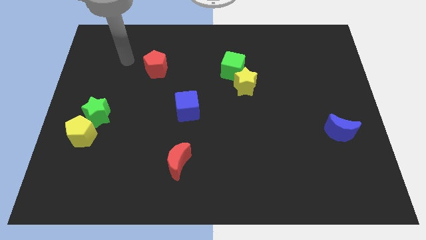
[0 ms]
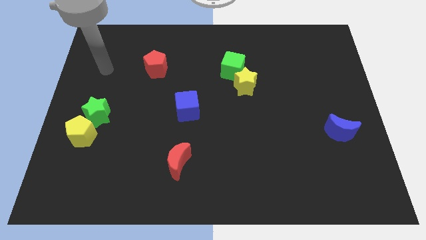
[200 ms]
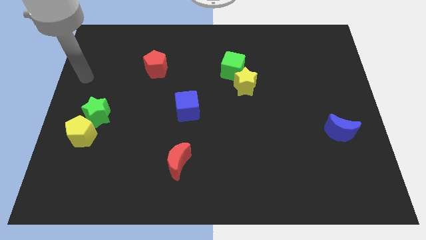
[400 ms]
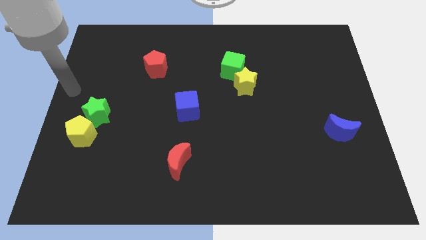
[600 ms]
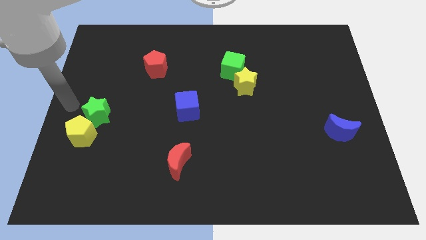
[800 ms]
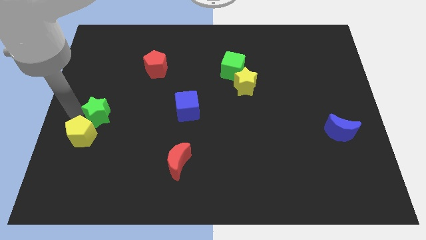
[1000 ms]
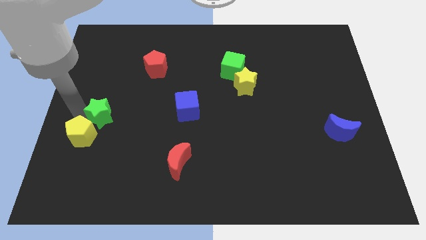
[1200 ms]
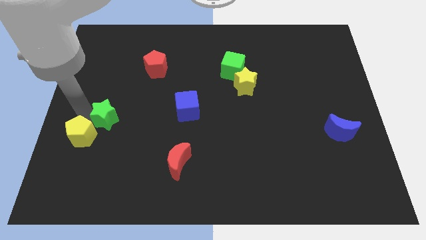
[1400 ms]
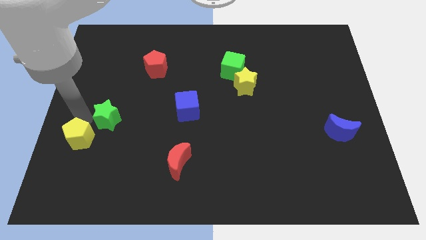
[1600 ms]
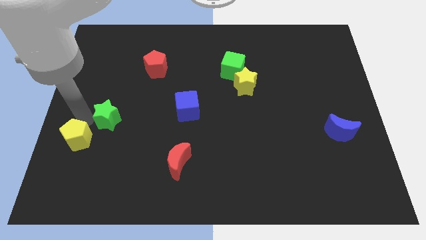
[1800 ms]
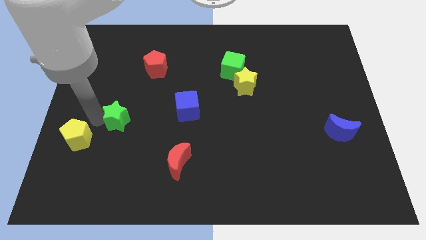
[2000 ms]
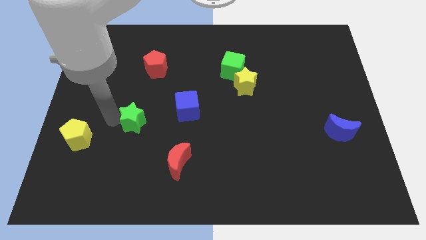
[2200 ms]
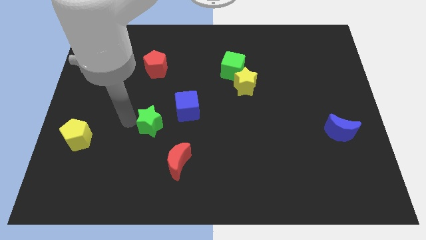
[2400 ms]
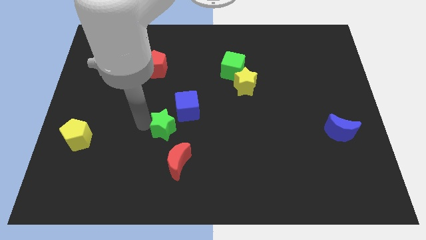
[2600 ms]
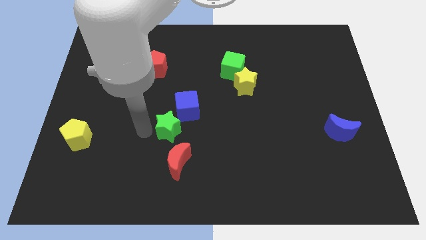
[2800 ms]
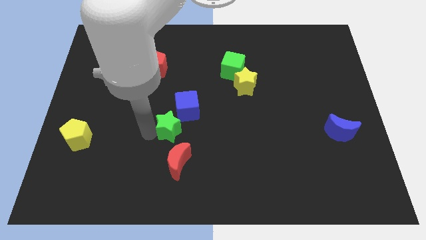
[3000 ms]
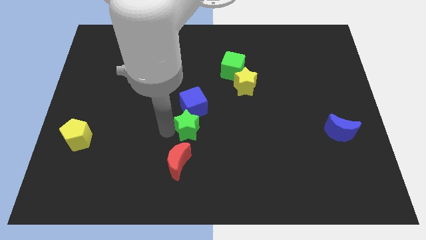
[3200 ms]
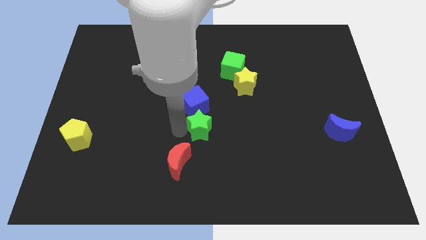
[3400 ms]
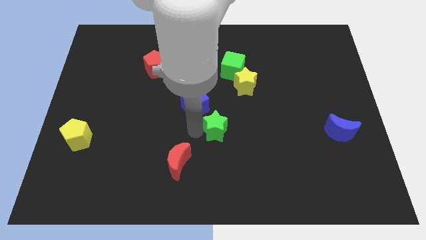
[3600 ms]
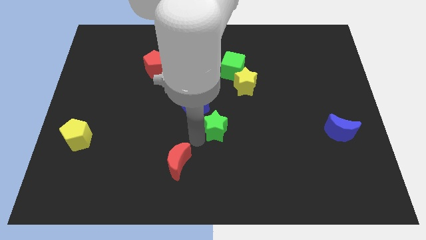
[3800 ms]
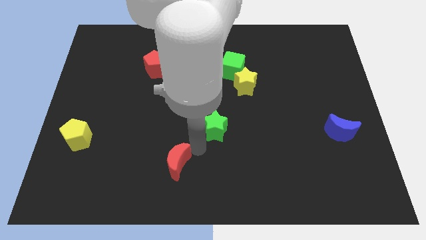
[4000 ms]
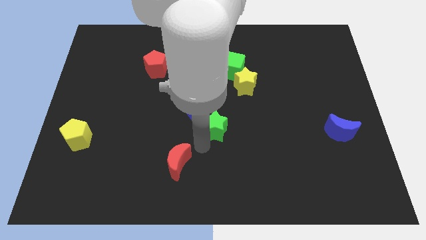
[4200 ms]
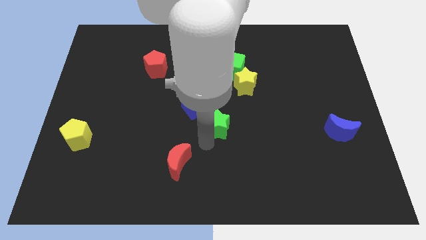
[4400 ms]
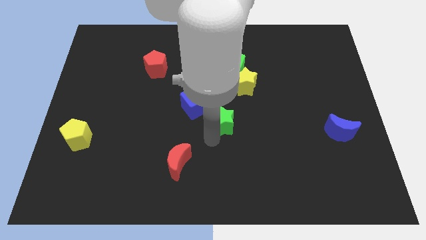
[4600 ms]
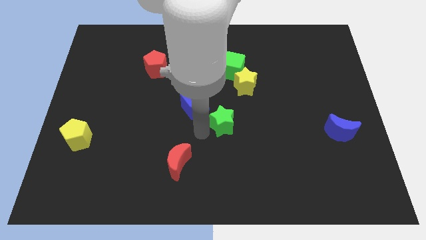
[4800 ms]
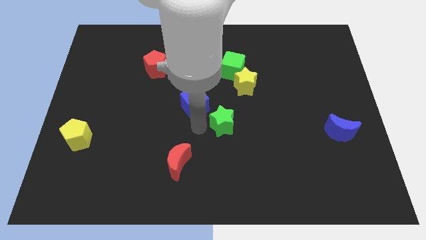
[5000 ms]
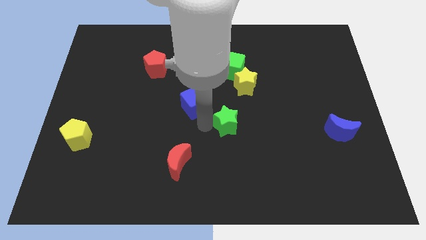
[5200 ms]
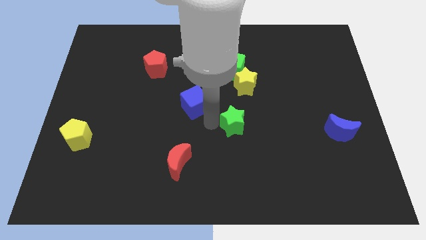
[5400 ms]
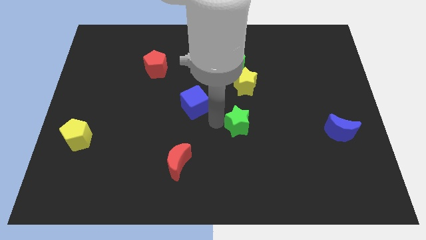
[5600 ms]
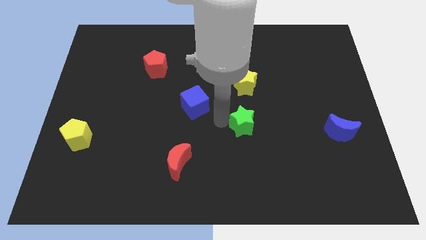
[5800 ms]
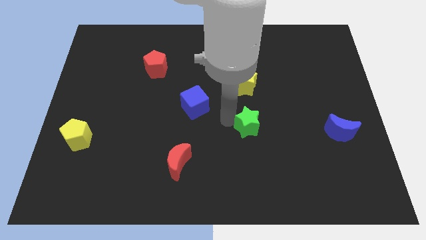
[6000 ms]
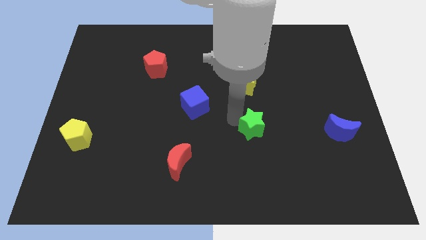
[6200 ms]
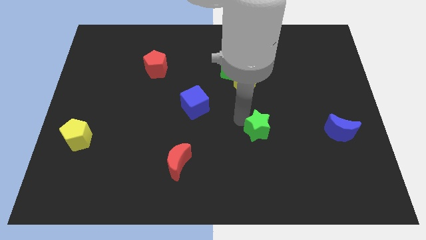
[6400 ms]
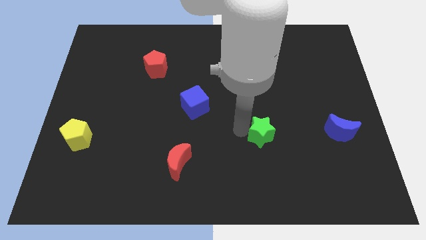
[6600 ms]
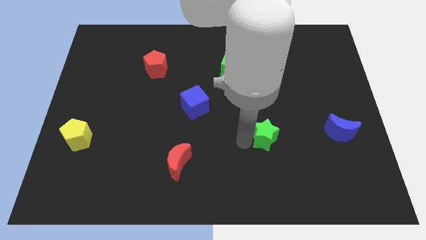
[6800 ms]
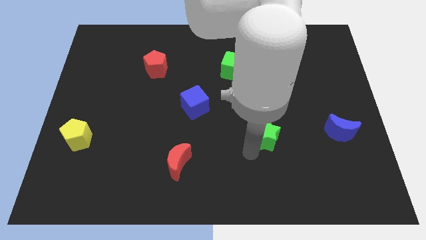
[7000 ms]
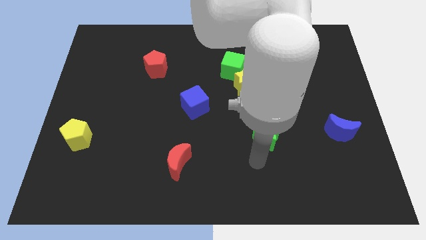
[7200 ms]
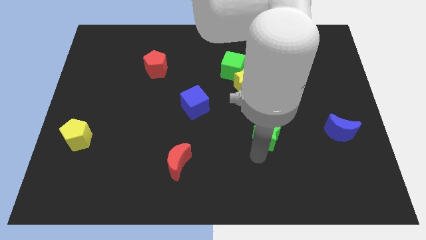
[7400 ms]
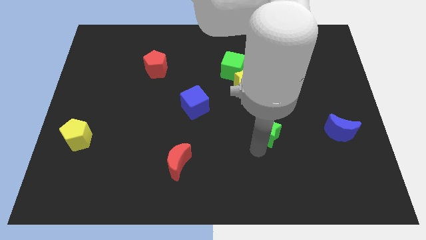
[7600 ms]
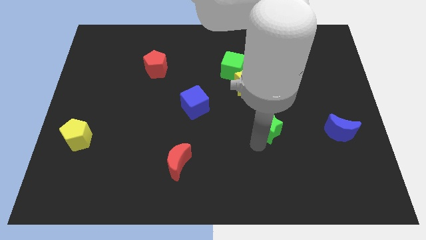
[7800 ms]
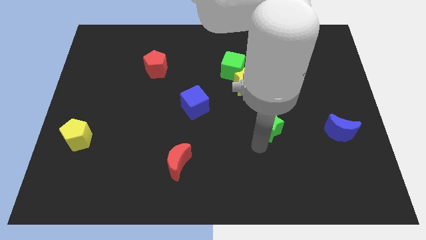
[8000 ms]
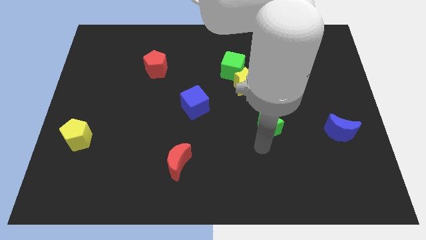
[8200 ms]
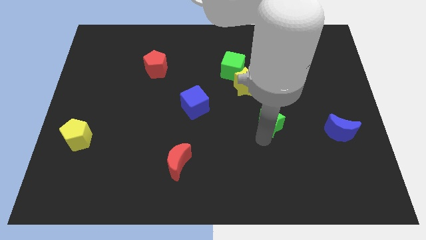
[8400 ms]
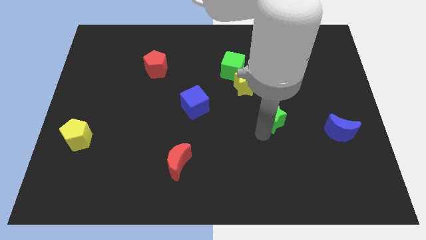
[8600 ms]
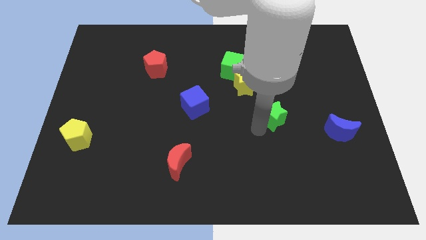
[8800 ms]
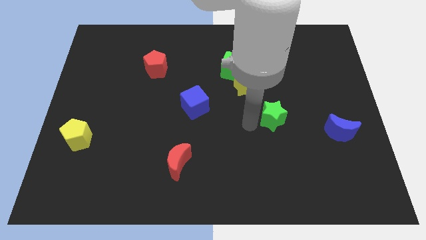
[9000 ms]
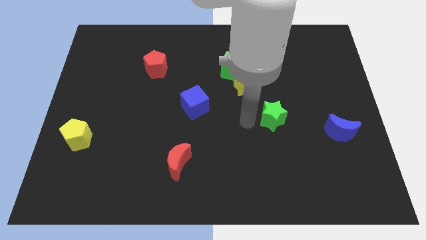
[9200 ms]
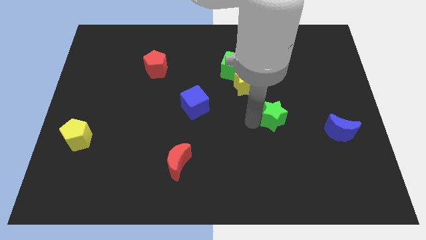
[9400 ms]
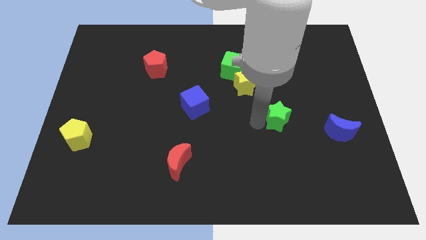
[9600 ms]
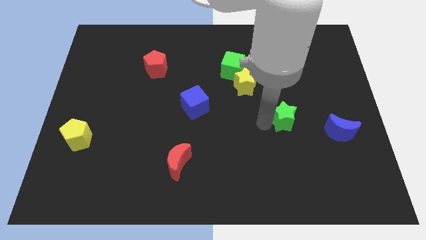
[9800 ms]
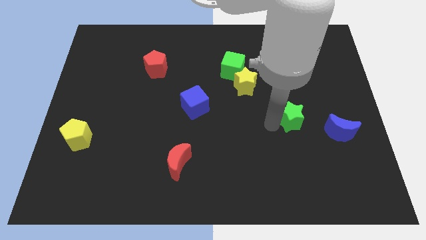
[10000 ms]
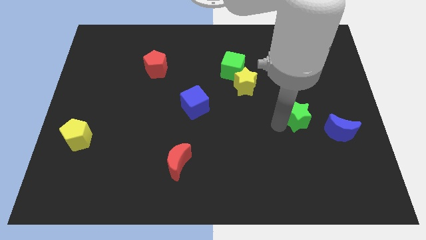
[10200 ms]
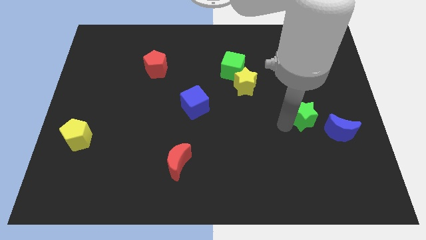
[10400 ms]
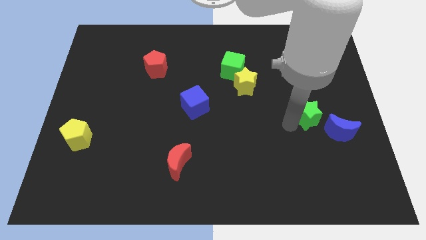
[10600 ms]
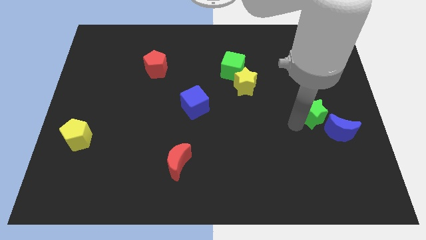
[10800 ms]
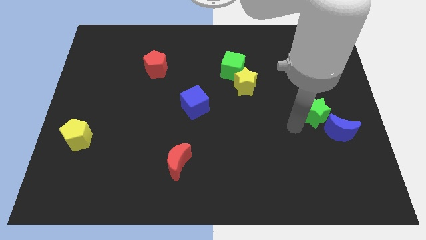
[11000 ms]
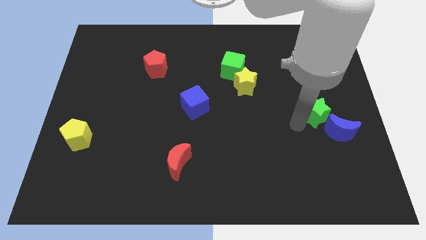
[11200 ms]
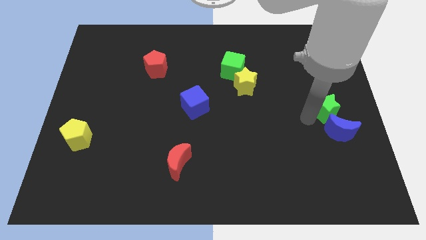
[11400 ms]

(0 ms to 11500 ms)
move the green star to the center right
